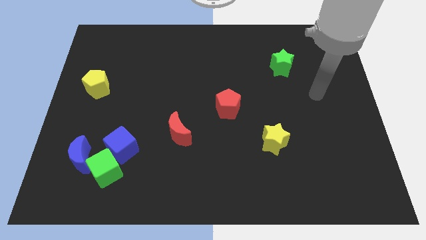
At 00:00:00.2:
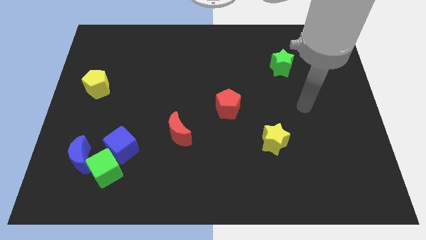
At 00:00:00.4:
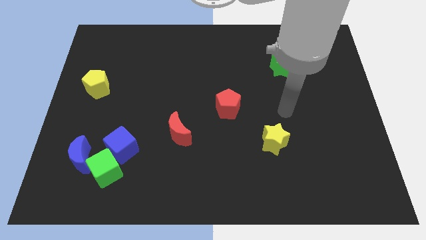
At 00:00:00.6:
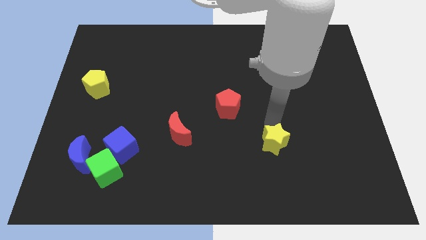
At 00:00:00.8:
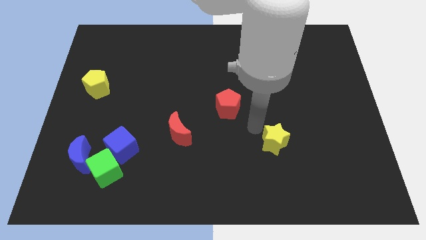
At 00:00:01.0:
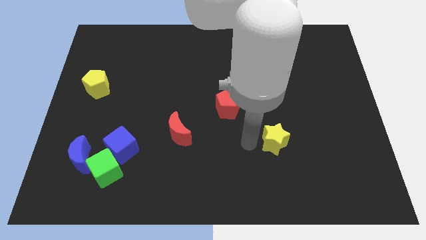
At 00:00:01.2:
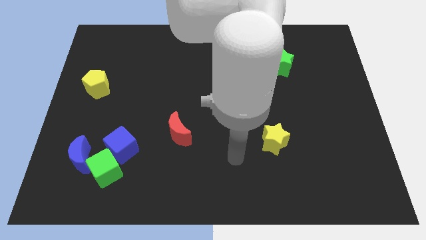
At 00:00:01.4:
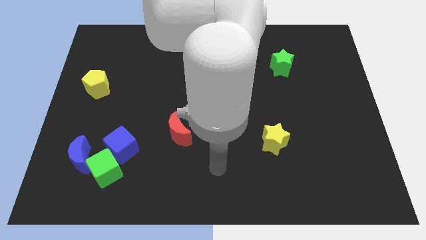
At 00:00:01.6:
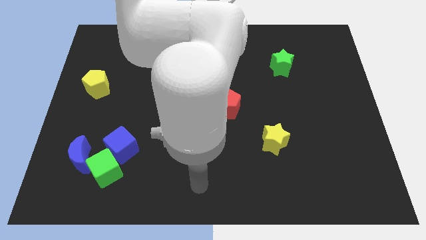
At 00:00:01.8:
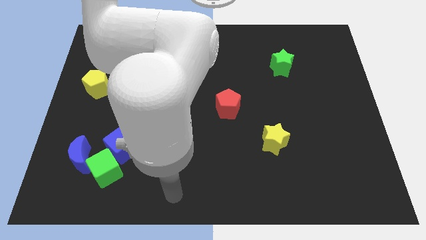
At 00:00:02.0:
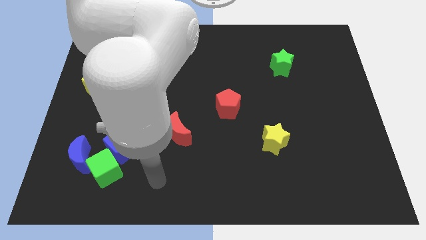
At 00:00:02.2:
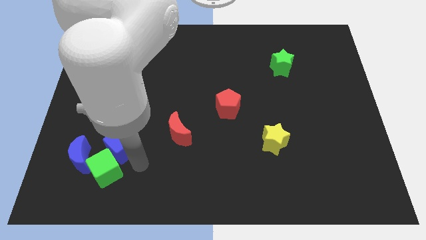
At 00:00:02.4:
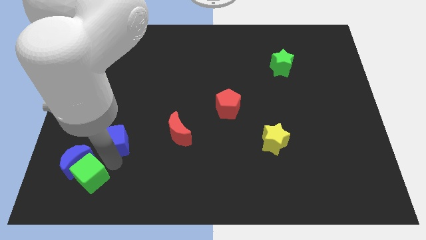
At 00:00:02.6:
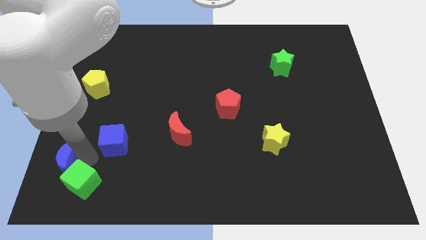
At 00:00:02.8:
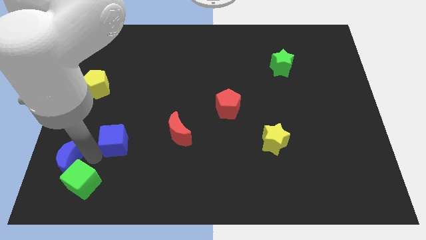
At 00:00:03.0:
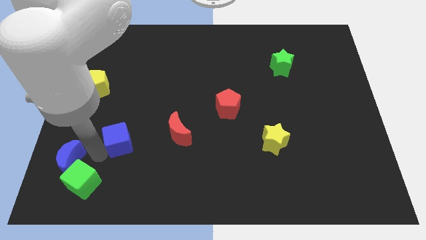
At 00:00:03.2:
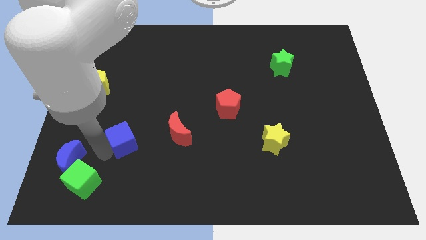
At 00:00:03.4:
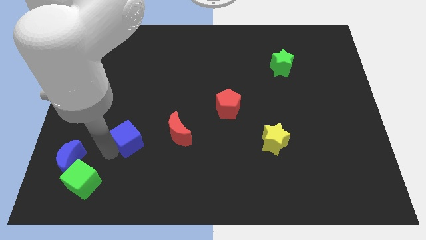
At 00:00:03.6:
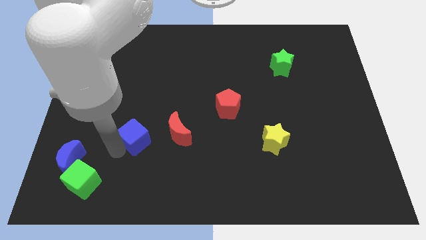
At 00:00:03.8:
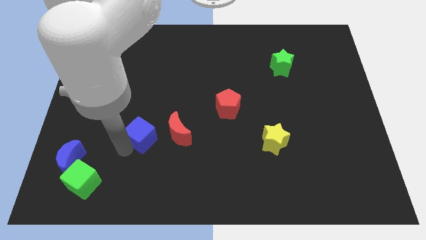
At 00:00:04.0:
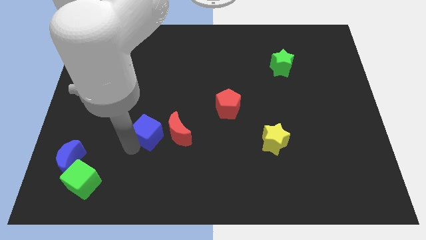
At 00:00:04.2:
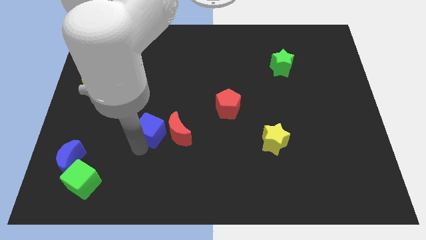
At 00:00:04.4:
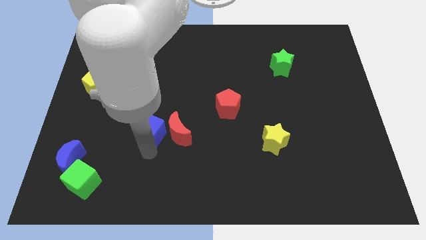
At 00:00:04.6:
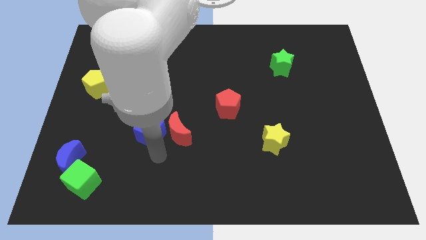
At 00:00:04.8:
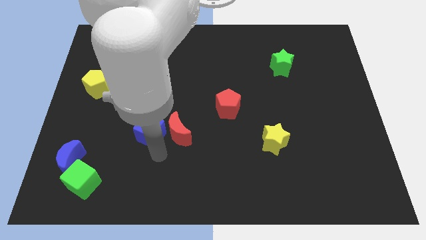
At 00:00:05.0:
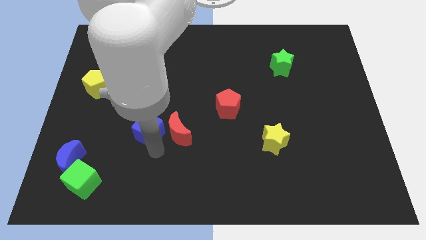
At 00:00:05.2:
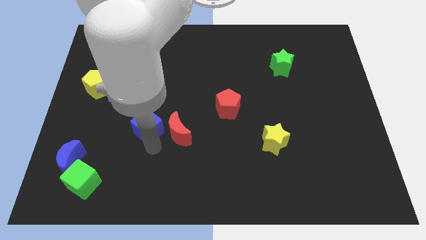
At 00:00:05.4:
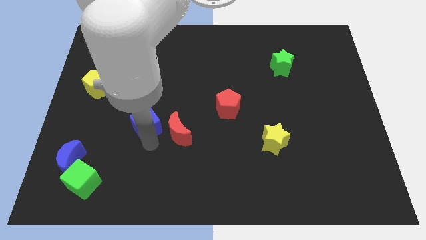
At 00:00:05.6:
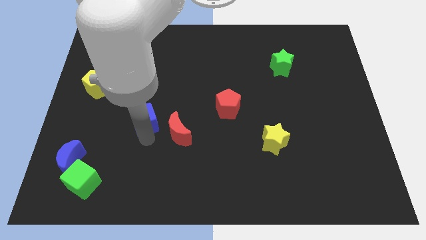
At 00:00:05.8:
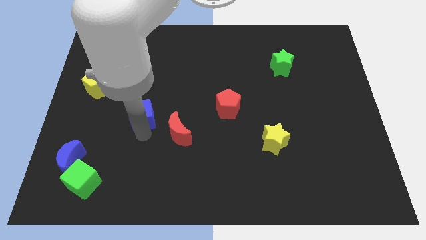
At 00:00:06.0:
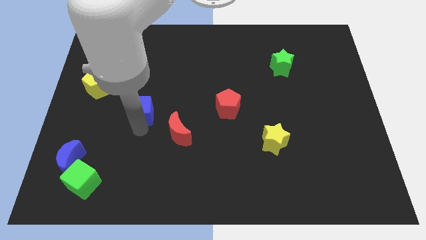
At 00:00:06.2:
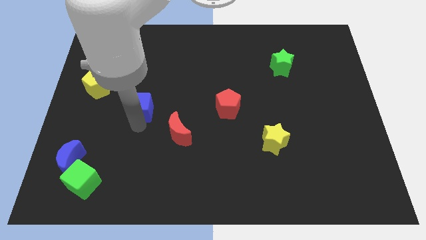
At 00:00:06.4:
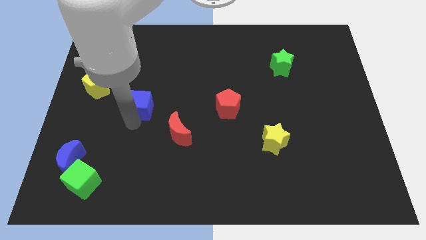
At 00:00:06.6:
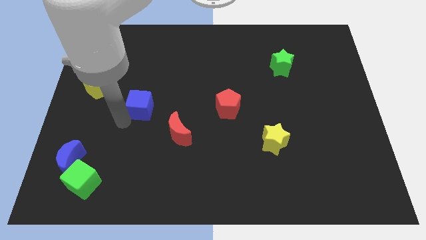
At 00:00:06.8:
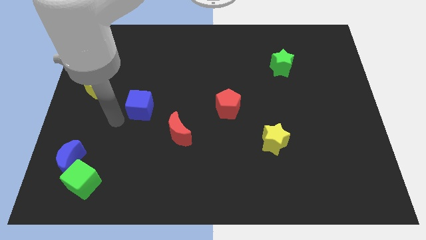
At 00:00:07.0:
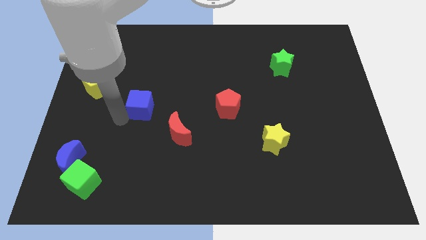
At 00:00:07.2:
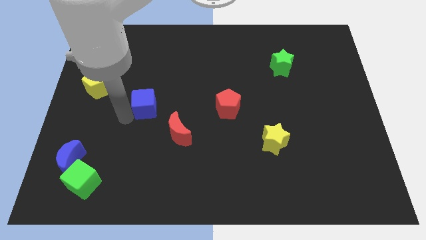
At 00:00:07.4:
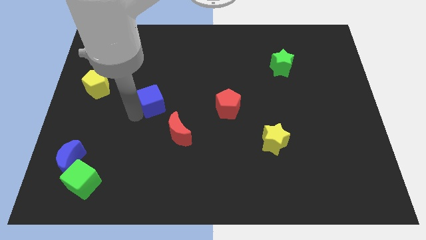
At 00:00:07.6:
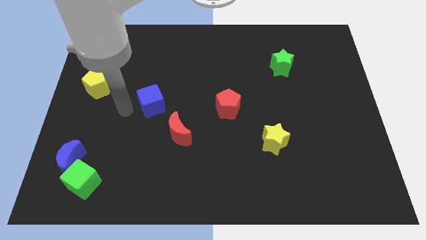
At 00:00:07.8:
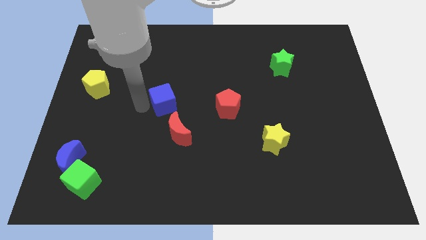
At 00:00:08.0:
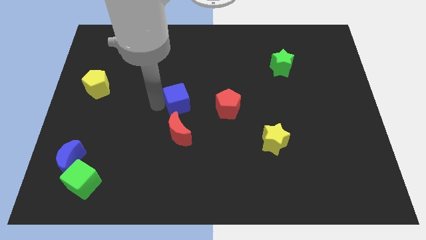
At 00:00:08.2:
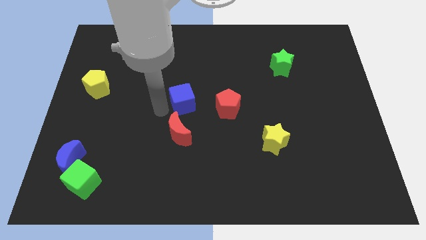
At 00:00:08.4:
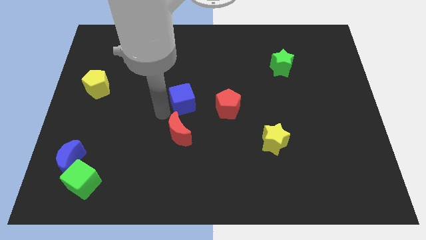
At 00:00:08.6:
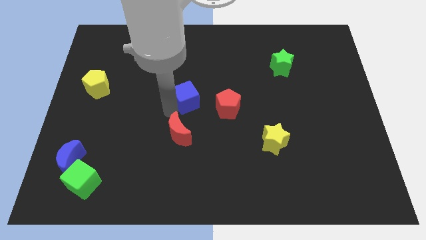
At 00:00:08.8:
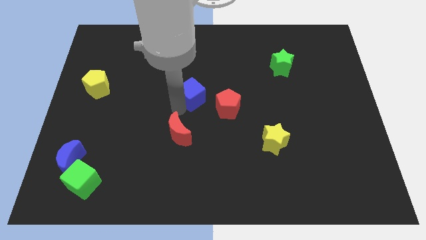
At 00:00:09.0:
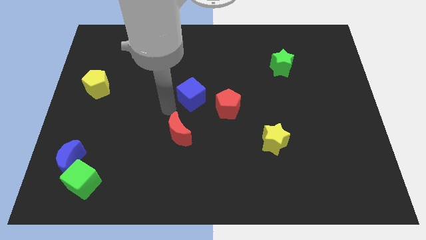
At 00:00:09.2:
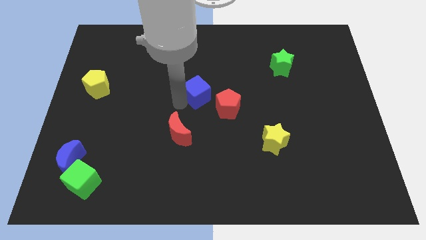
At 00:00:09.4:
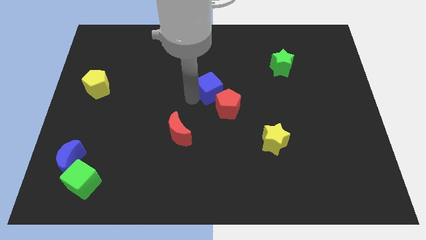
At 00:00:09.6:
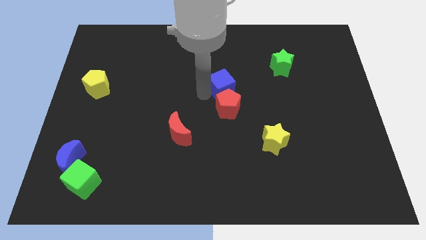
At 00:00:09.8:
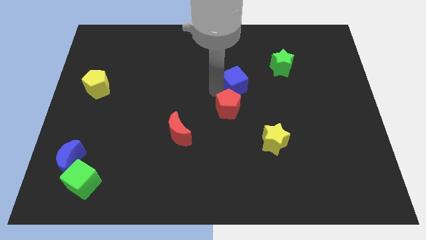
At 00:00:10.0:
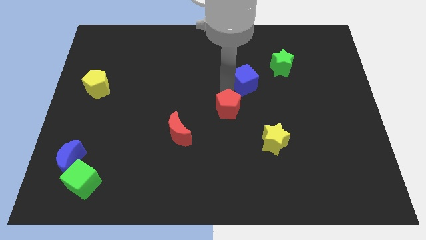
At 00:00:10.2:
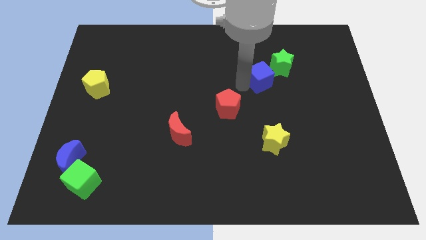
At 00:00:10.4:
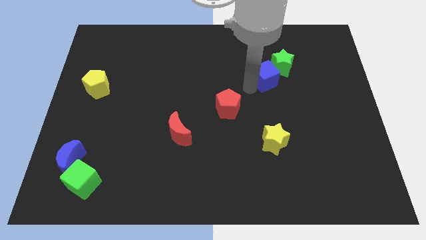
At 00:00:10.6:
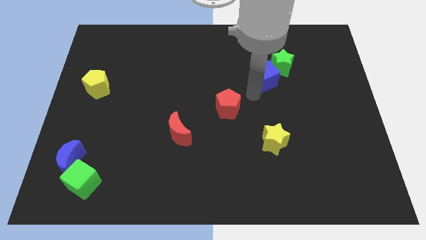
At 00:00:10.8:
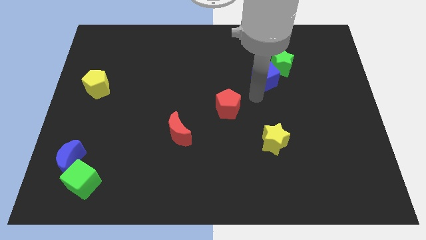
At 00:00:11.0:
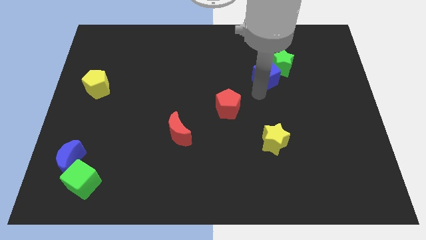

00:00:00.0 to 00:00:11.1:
slide the blue cube to the green star

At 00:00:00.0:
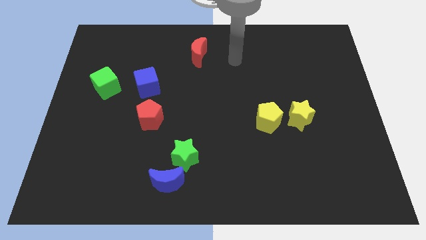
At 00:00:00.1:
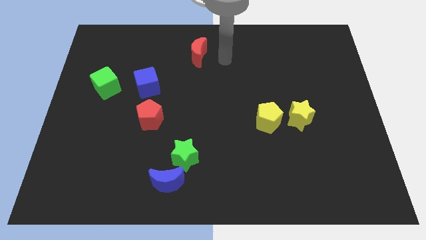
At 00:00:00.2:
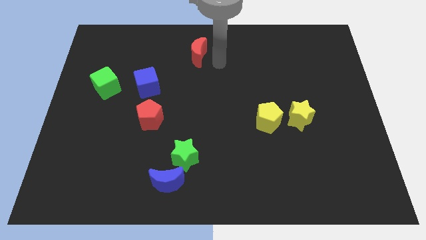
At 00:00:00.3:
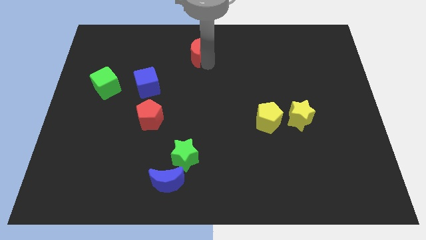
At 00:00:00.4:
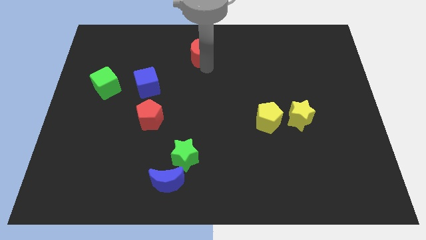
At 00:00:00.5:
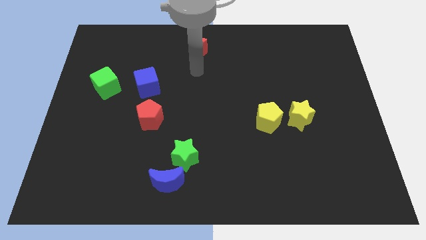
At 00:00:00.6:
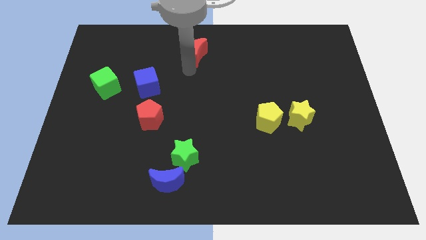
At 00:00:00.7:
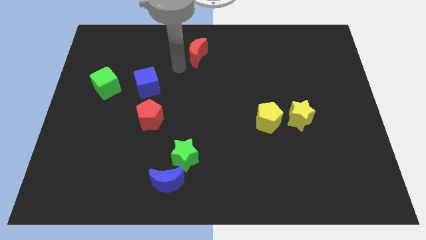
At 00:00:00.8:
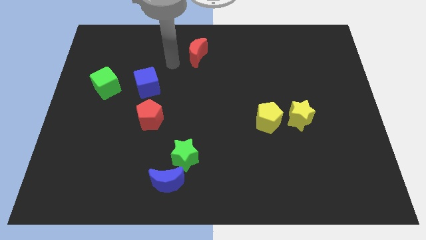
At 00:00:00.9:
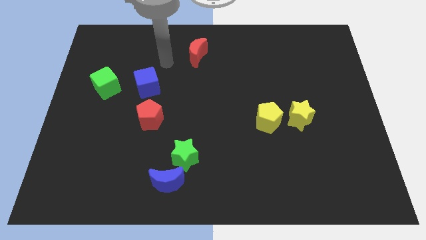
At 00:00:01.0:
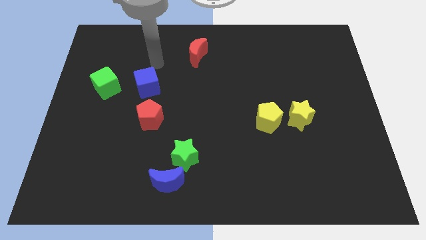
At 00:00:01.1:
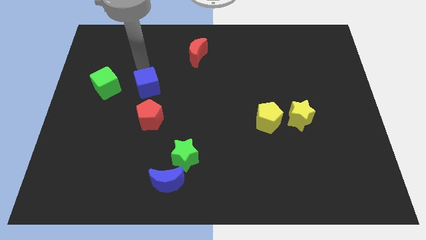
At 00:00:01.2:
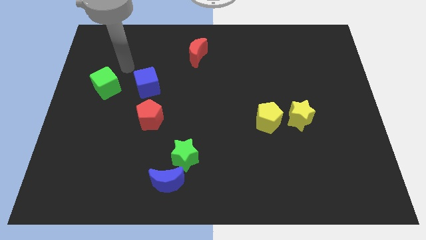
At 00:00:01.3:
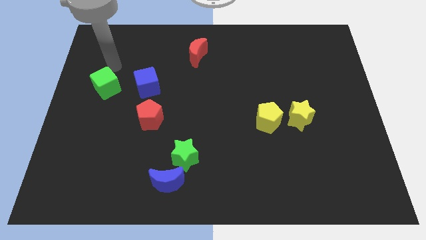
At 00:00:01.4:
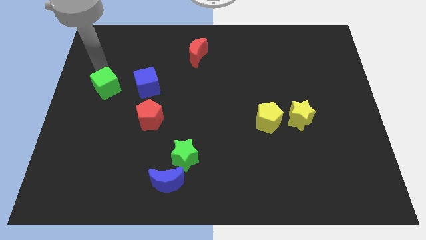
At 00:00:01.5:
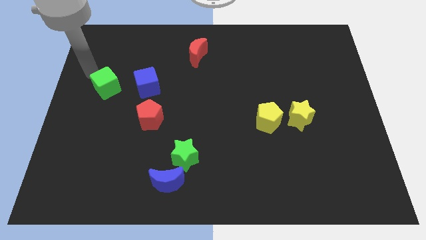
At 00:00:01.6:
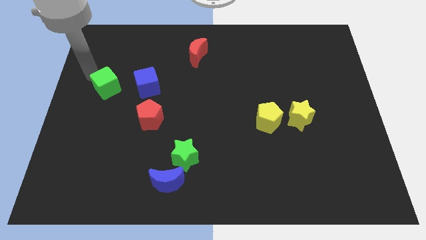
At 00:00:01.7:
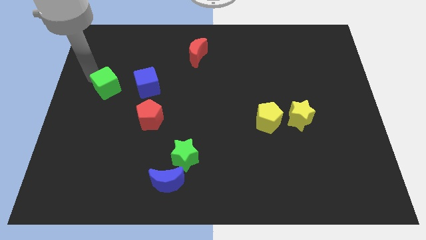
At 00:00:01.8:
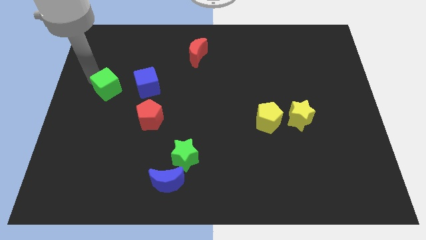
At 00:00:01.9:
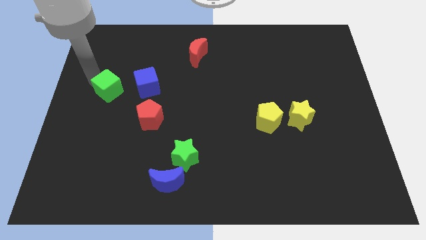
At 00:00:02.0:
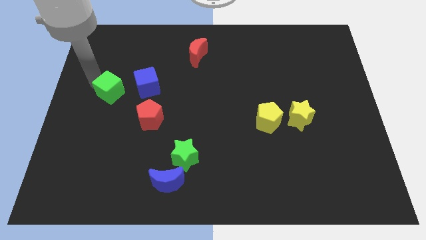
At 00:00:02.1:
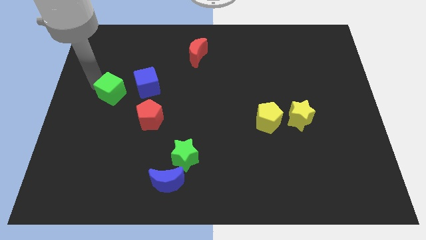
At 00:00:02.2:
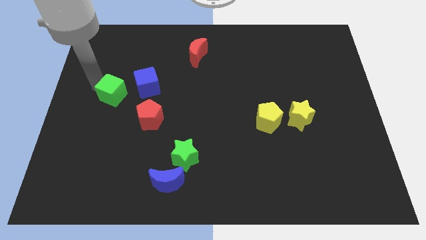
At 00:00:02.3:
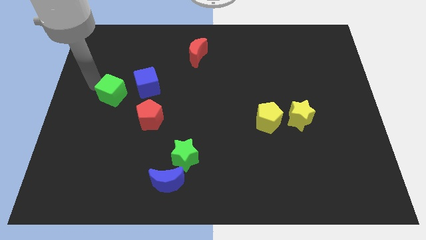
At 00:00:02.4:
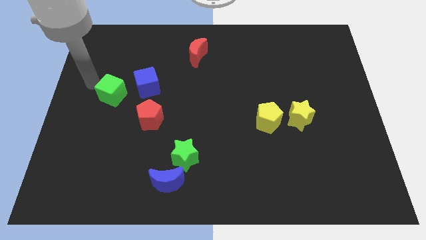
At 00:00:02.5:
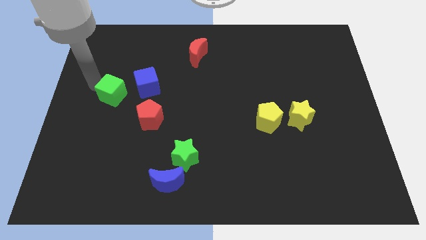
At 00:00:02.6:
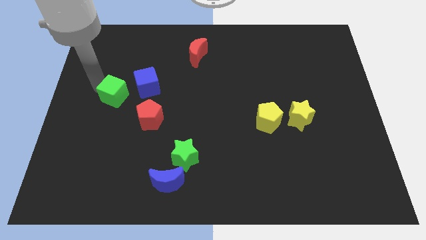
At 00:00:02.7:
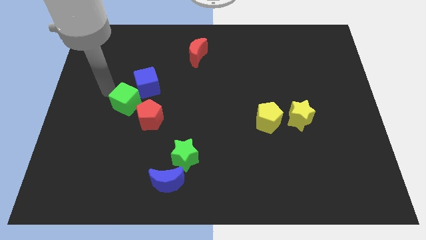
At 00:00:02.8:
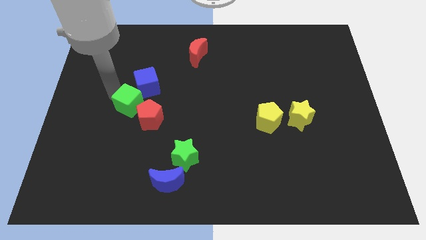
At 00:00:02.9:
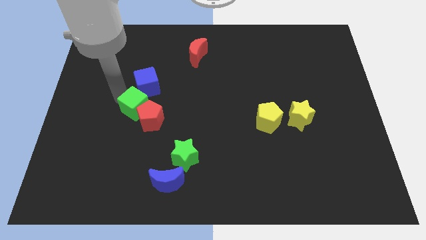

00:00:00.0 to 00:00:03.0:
put the green cube close to the red pentagon
